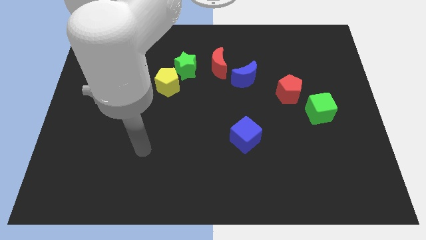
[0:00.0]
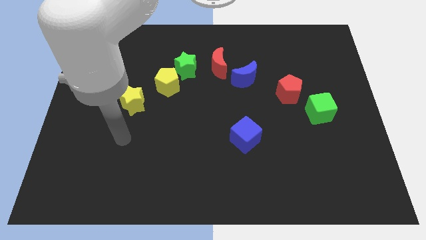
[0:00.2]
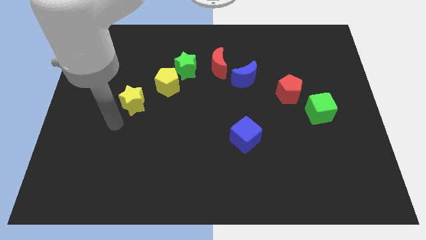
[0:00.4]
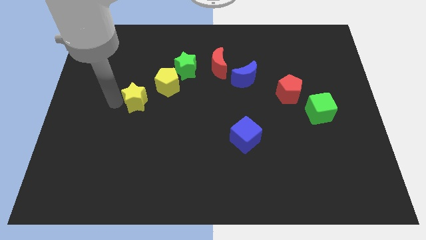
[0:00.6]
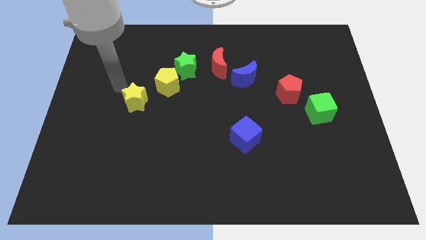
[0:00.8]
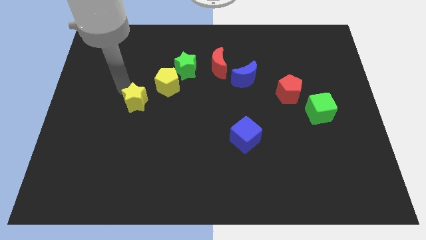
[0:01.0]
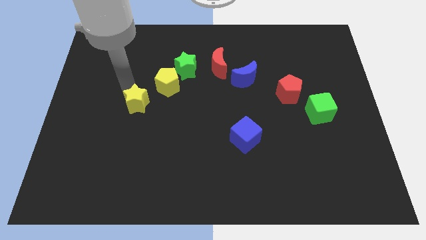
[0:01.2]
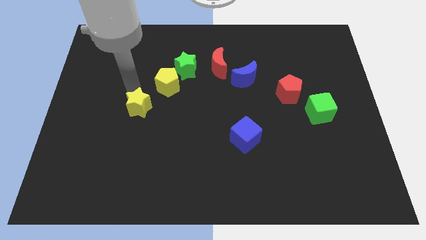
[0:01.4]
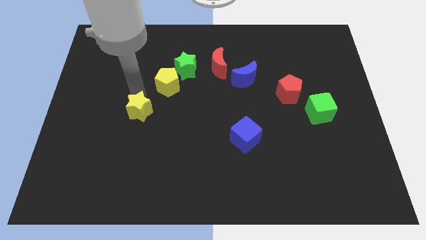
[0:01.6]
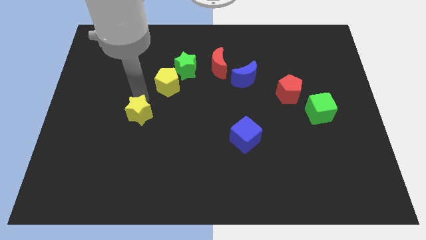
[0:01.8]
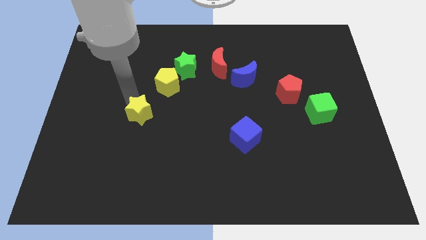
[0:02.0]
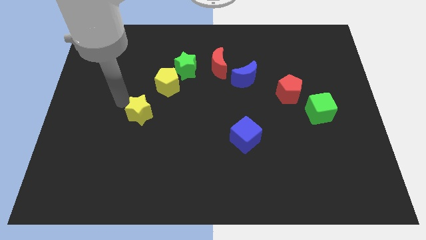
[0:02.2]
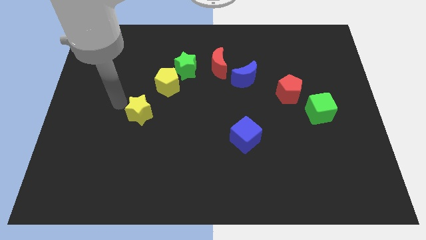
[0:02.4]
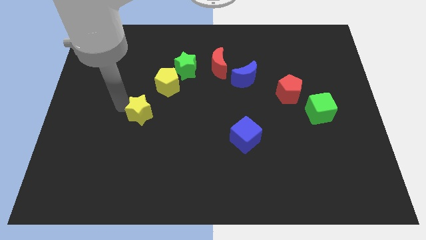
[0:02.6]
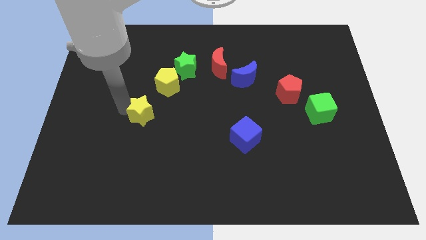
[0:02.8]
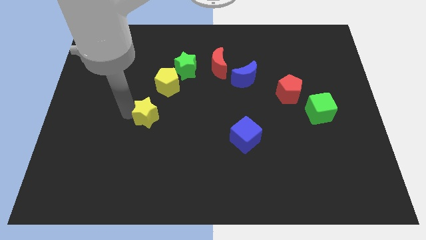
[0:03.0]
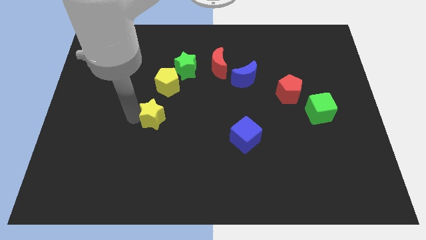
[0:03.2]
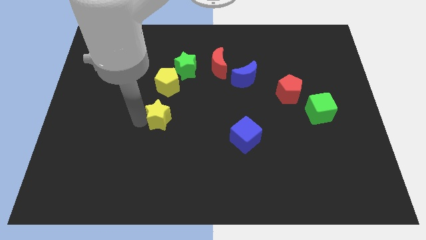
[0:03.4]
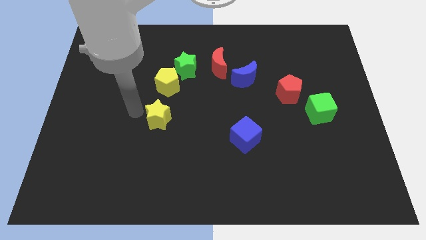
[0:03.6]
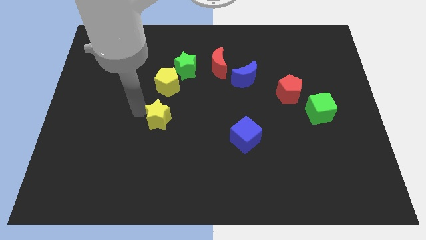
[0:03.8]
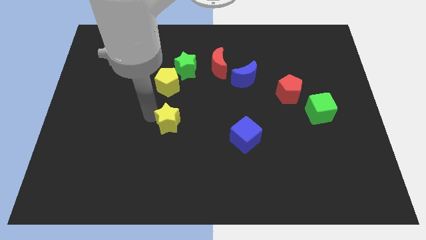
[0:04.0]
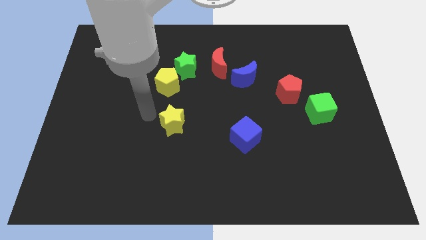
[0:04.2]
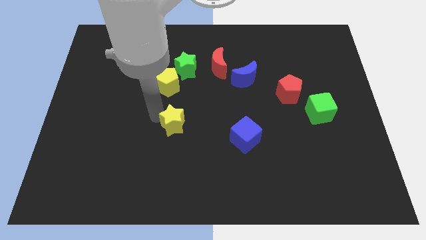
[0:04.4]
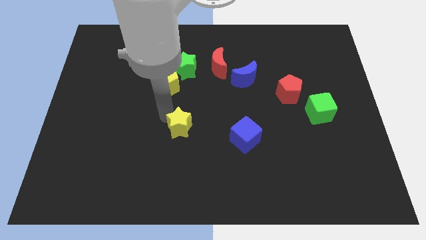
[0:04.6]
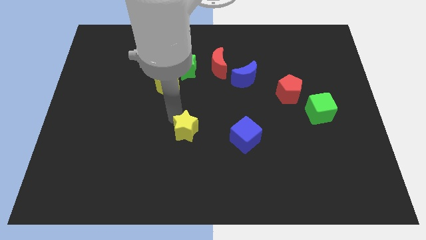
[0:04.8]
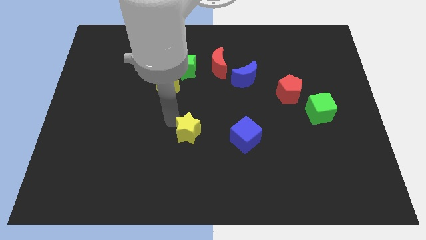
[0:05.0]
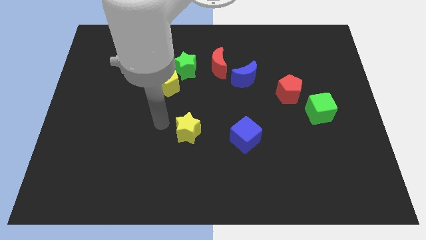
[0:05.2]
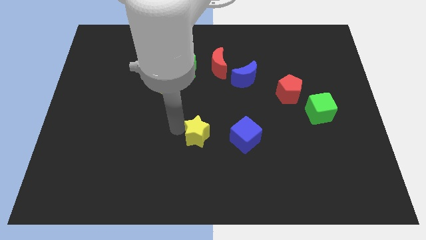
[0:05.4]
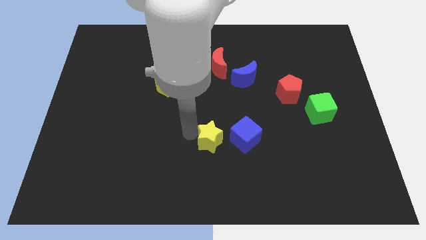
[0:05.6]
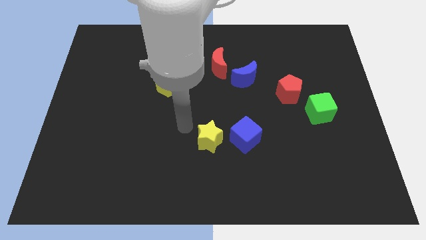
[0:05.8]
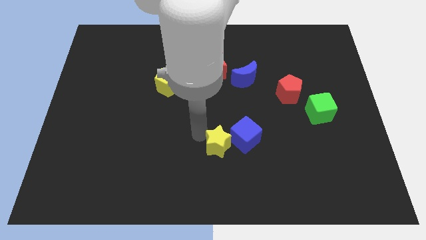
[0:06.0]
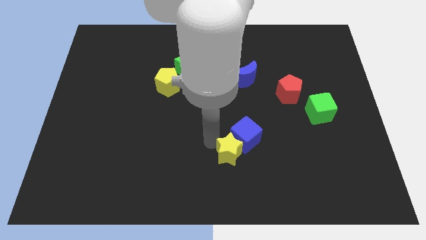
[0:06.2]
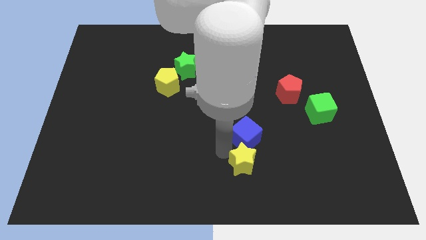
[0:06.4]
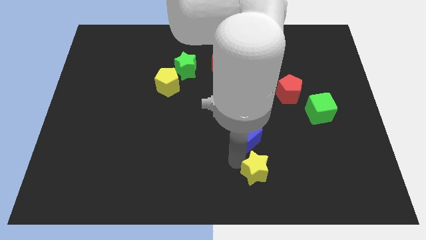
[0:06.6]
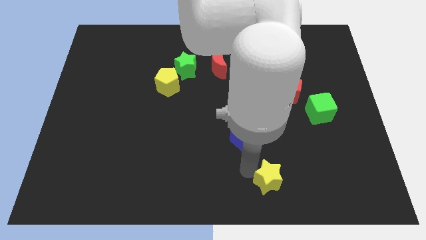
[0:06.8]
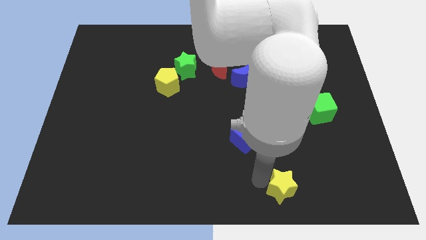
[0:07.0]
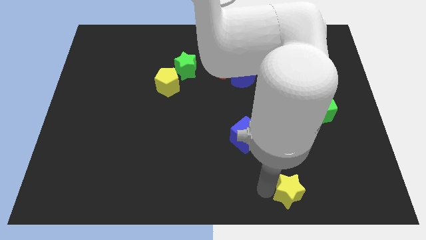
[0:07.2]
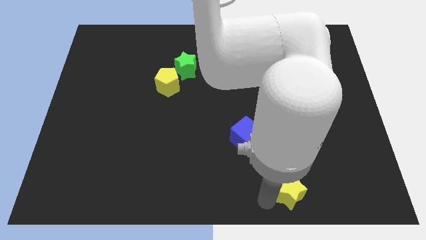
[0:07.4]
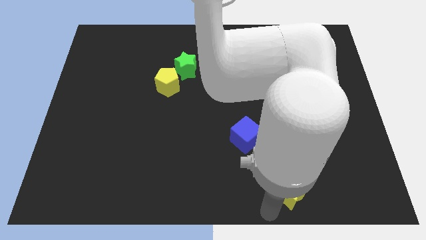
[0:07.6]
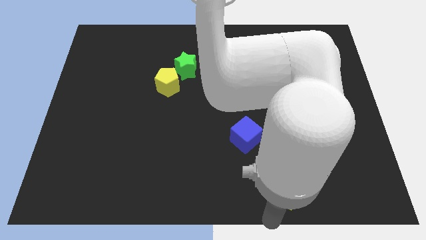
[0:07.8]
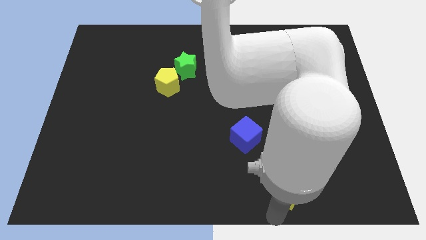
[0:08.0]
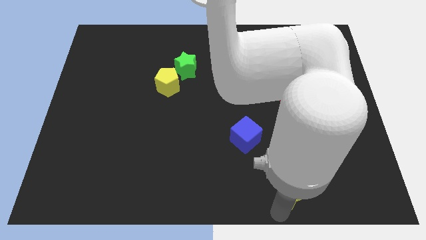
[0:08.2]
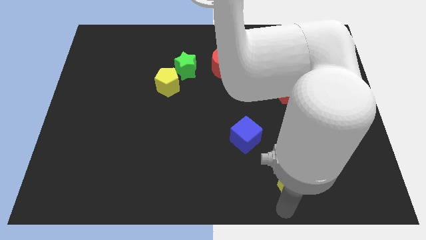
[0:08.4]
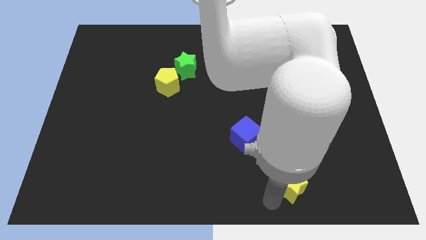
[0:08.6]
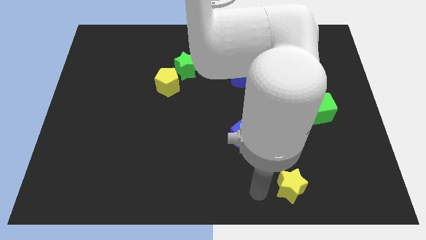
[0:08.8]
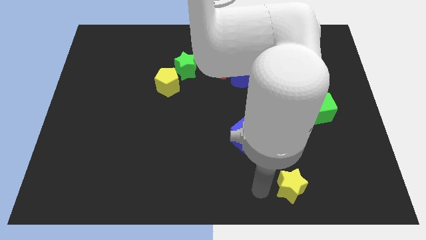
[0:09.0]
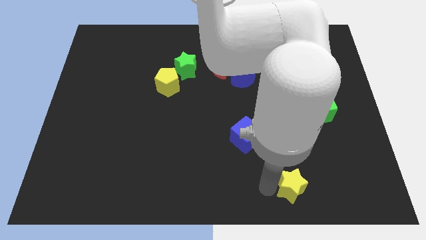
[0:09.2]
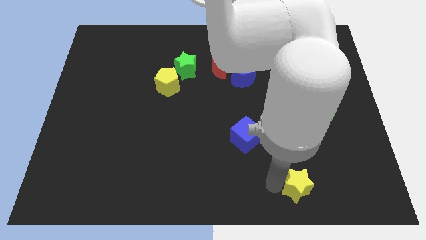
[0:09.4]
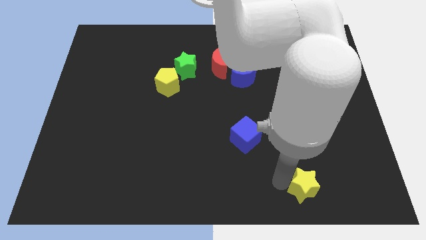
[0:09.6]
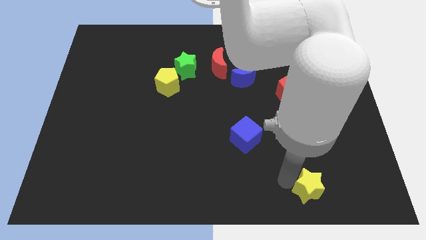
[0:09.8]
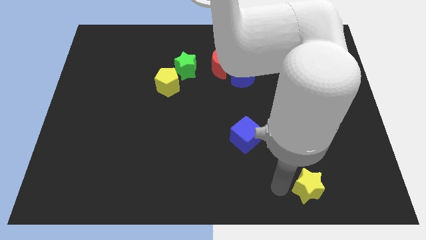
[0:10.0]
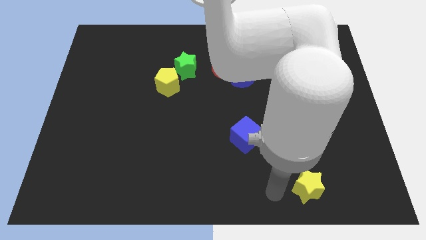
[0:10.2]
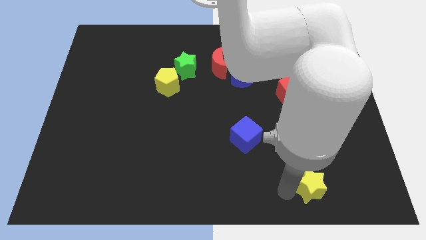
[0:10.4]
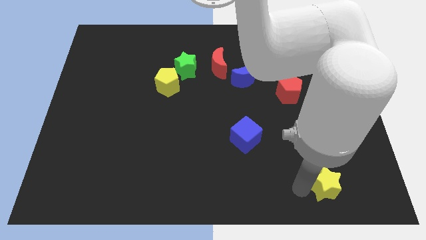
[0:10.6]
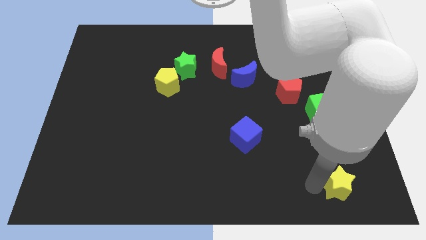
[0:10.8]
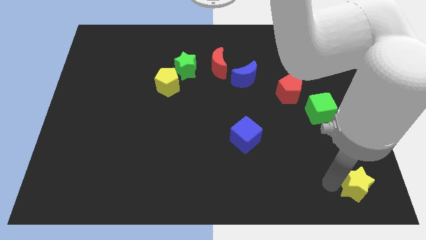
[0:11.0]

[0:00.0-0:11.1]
move the yellow star to the bottom right corner

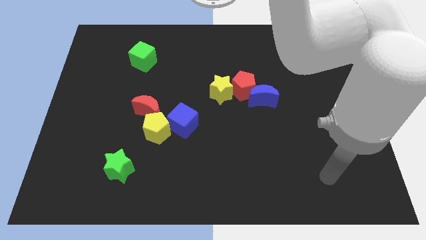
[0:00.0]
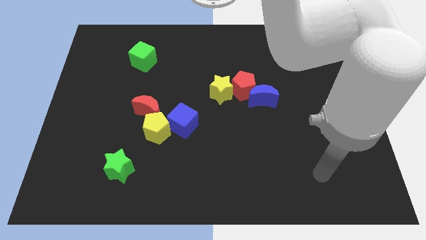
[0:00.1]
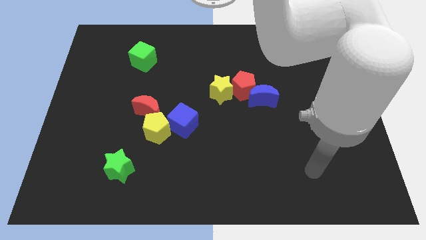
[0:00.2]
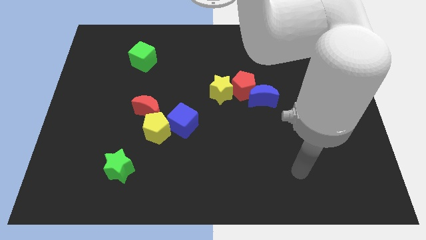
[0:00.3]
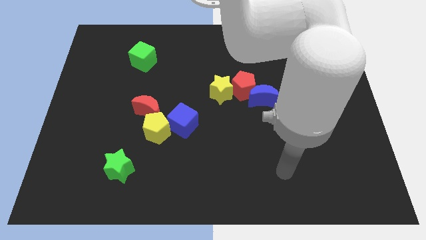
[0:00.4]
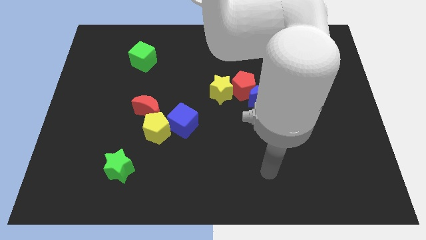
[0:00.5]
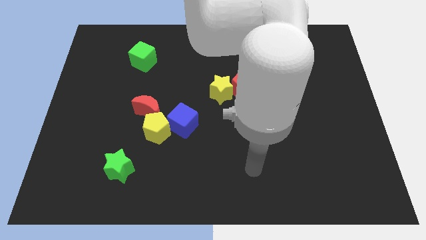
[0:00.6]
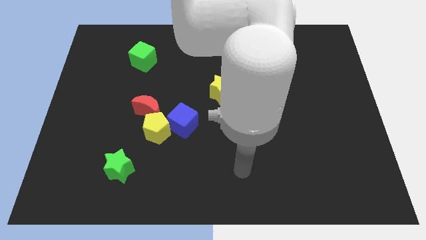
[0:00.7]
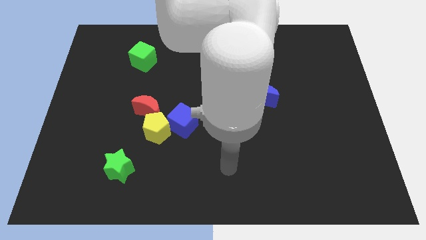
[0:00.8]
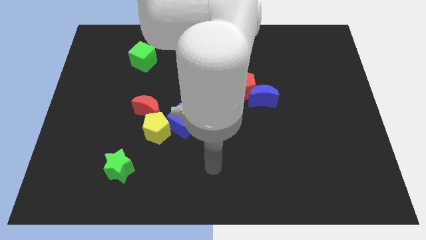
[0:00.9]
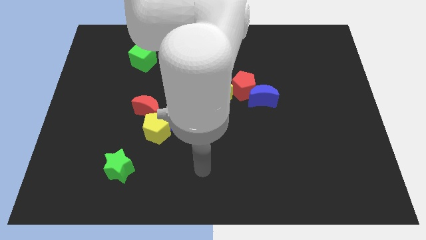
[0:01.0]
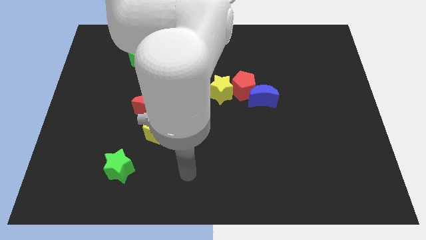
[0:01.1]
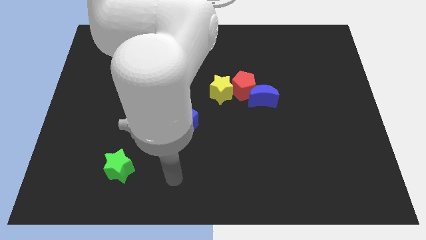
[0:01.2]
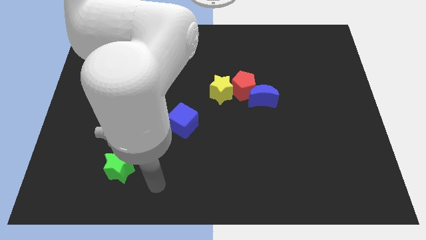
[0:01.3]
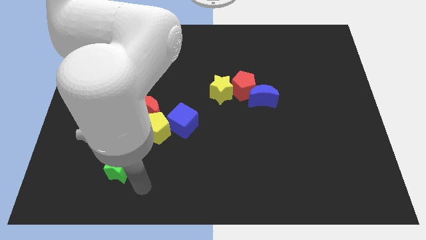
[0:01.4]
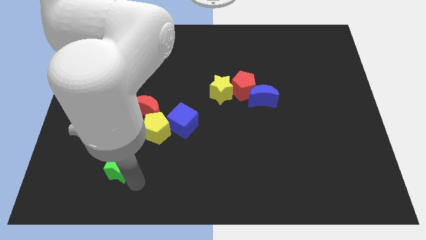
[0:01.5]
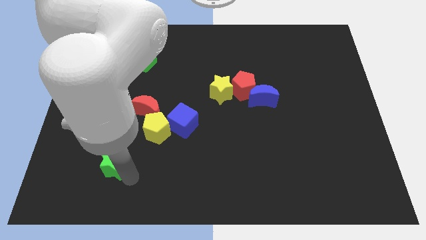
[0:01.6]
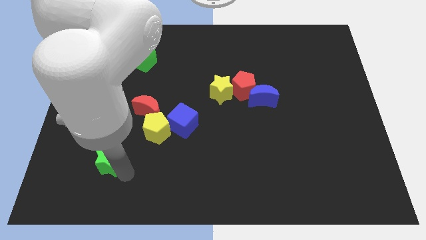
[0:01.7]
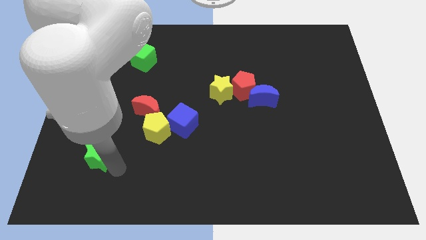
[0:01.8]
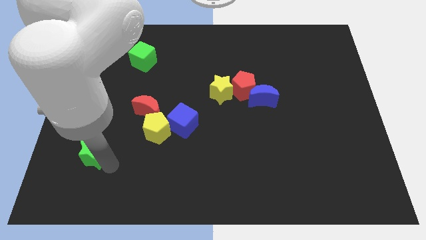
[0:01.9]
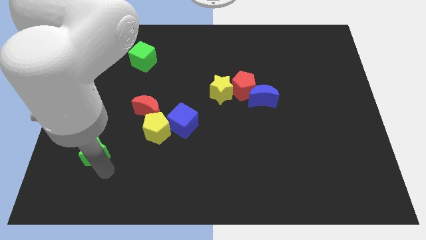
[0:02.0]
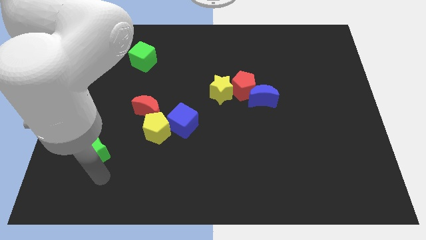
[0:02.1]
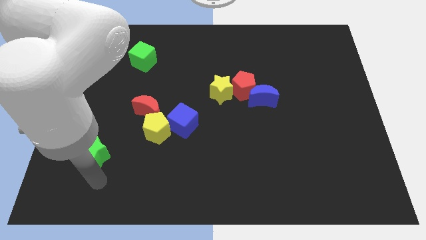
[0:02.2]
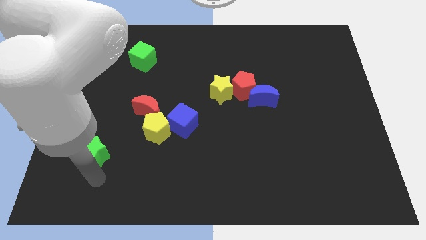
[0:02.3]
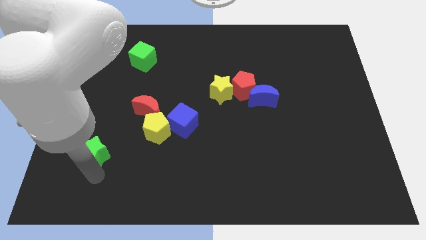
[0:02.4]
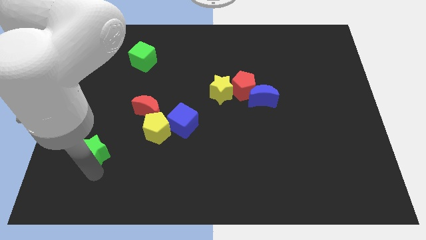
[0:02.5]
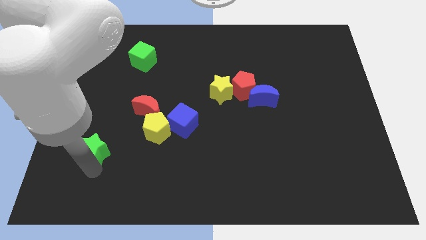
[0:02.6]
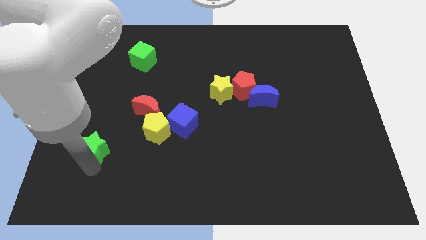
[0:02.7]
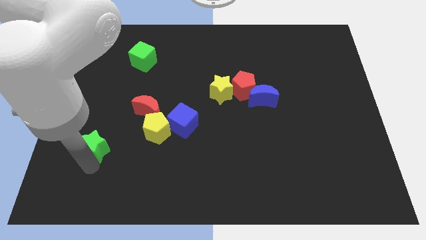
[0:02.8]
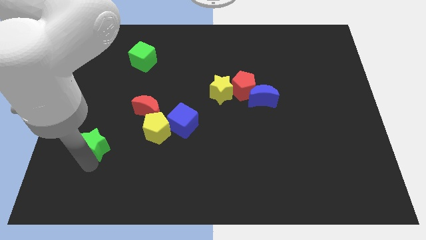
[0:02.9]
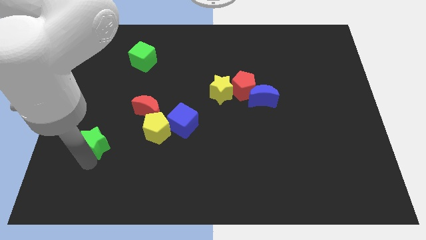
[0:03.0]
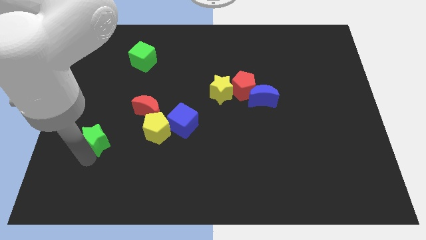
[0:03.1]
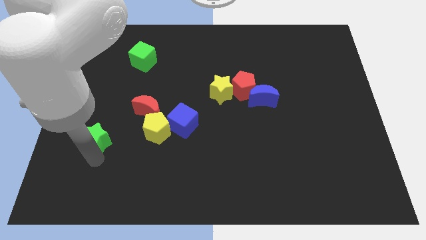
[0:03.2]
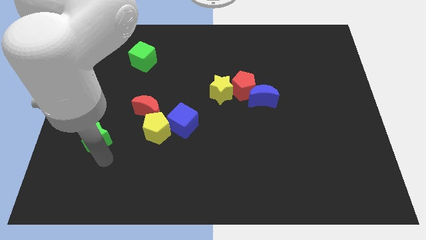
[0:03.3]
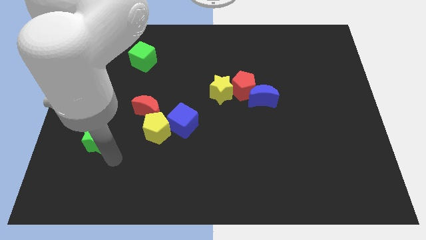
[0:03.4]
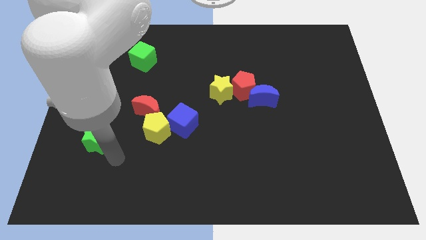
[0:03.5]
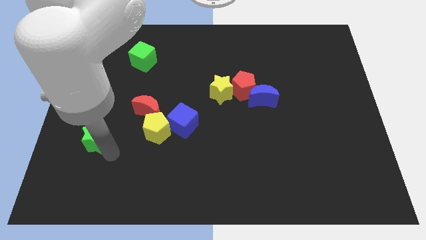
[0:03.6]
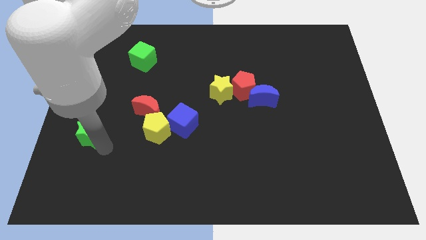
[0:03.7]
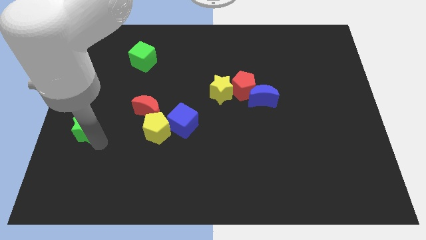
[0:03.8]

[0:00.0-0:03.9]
move the green star to the left side of the board
